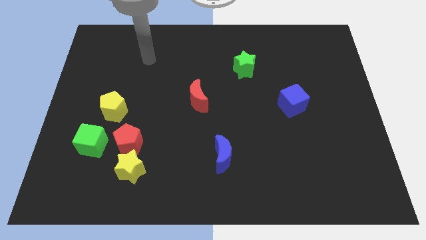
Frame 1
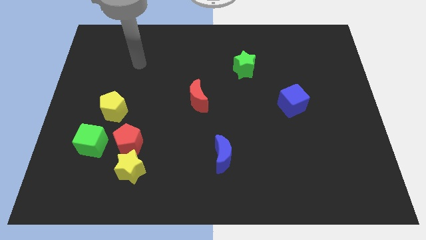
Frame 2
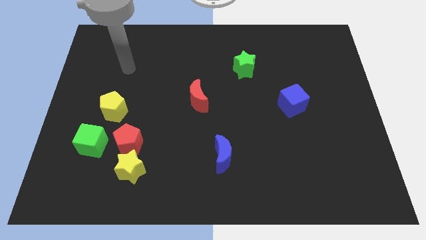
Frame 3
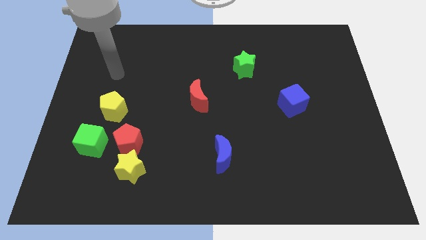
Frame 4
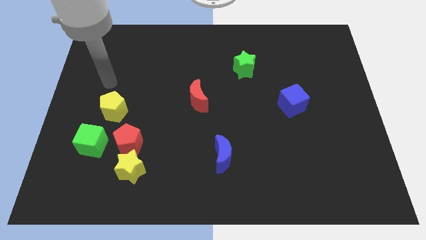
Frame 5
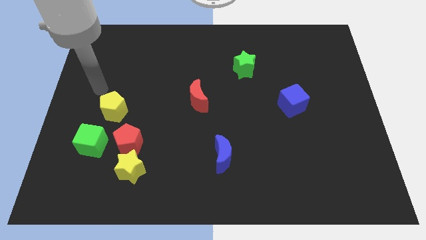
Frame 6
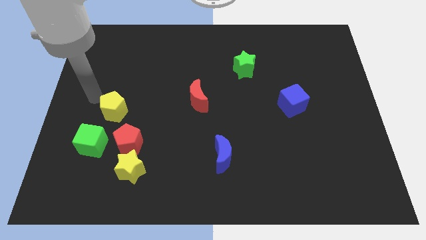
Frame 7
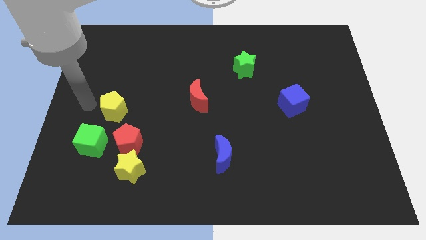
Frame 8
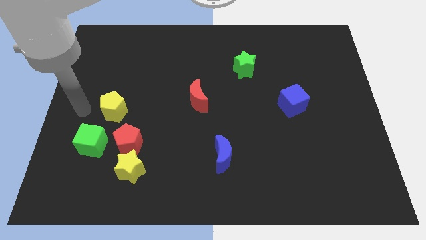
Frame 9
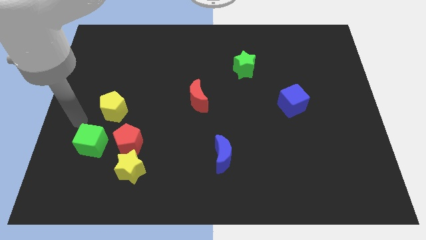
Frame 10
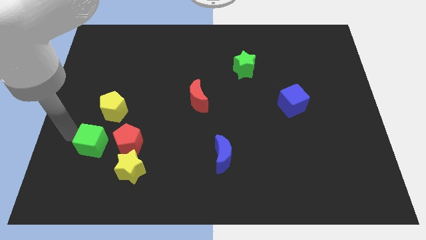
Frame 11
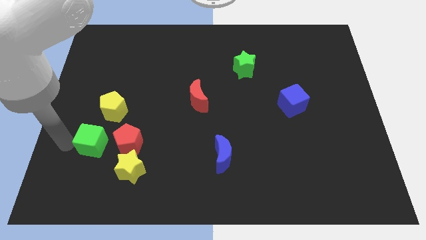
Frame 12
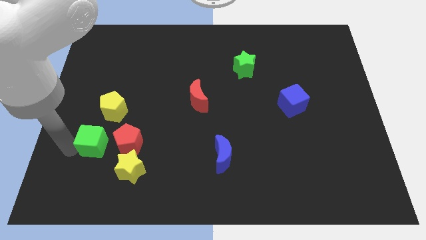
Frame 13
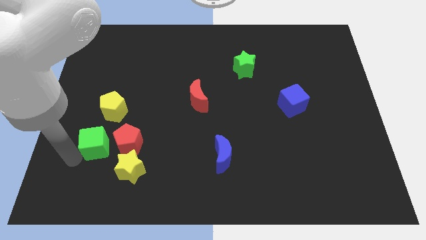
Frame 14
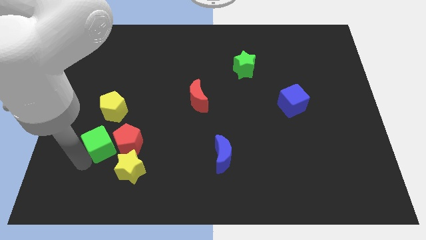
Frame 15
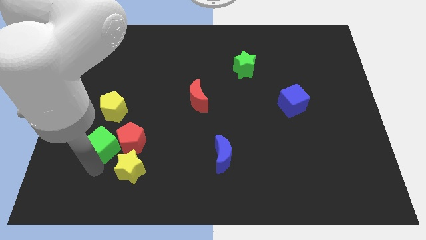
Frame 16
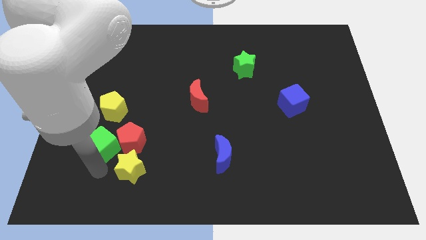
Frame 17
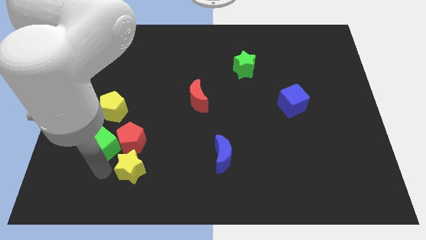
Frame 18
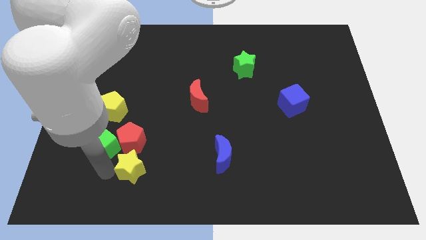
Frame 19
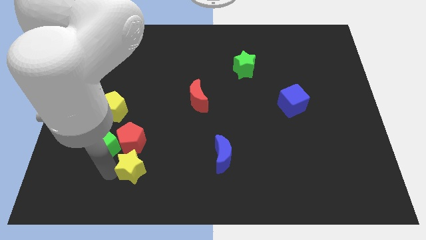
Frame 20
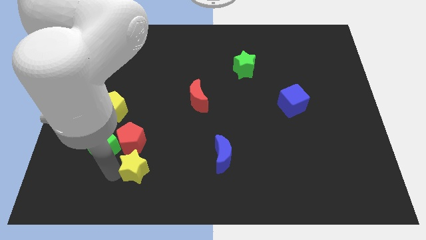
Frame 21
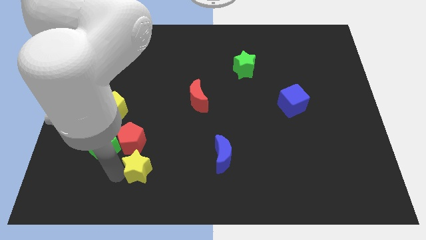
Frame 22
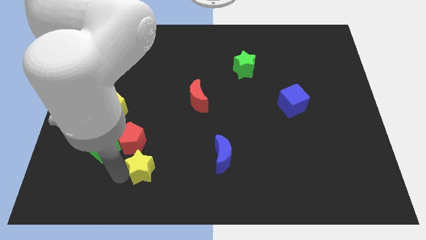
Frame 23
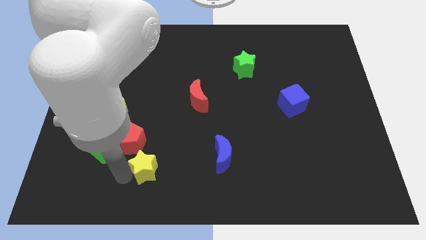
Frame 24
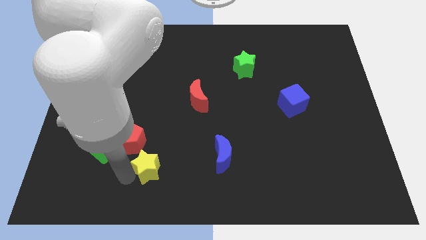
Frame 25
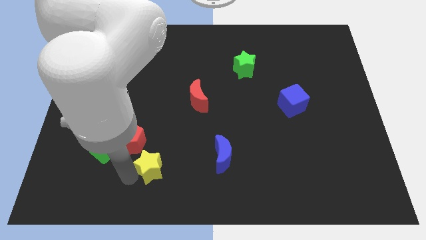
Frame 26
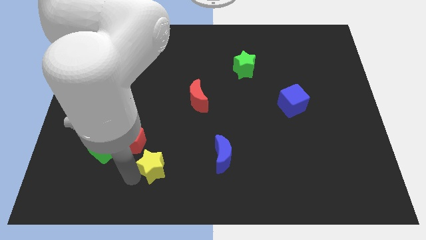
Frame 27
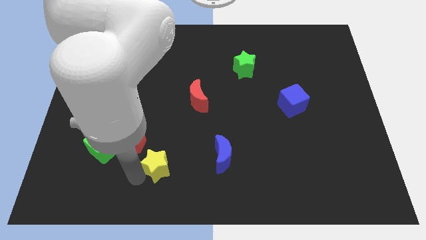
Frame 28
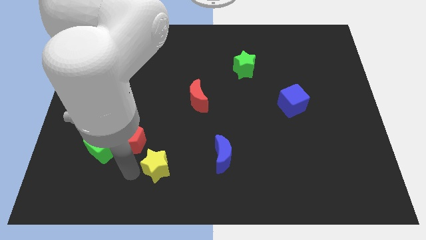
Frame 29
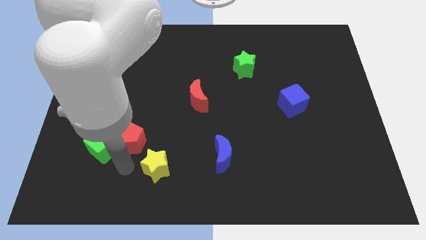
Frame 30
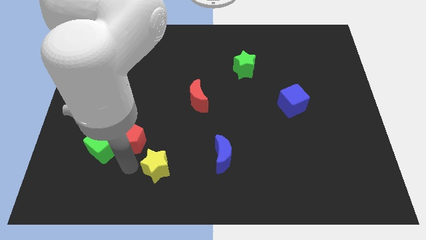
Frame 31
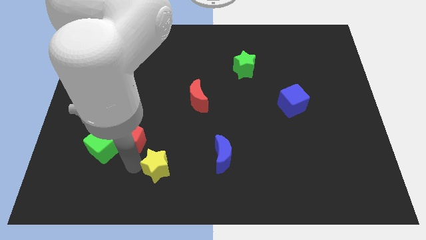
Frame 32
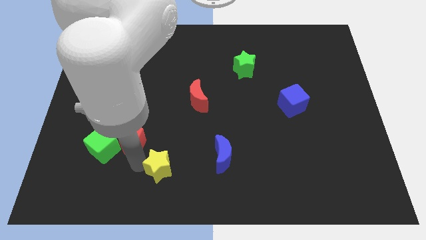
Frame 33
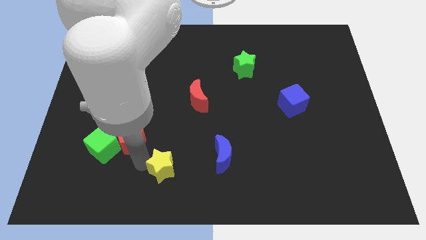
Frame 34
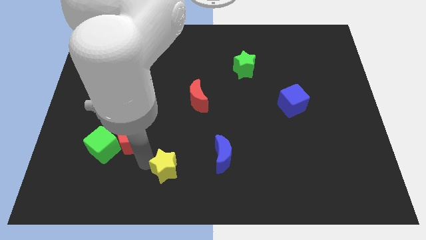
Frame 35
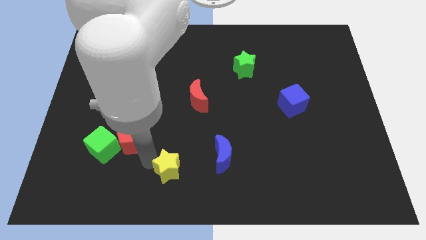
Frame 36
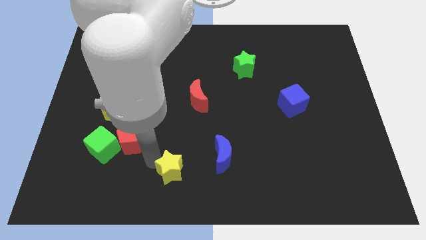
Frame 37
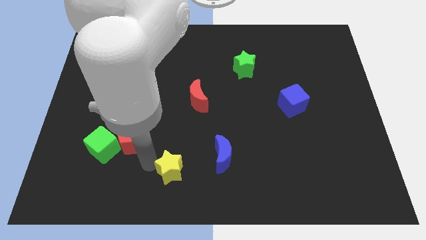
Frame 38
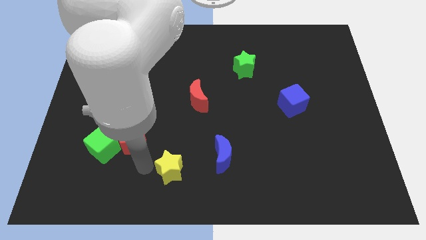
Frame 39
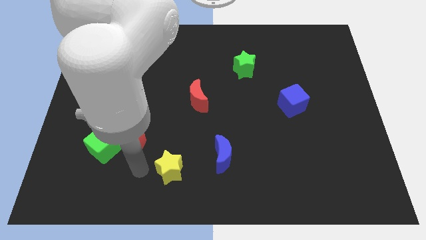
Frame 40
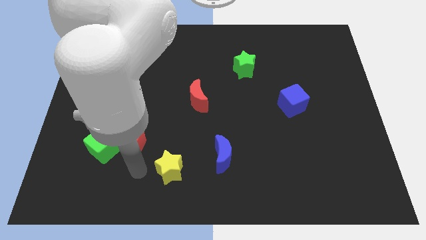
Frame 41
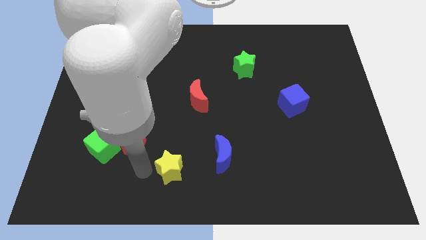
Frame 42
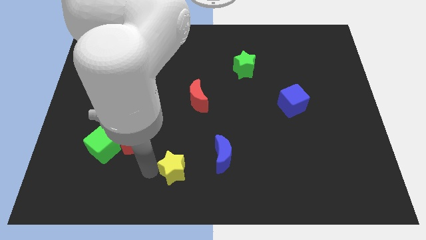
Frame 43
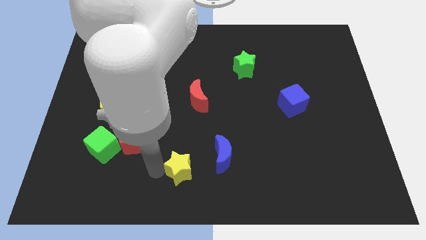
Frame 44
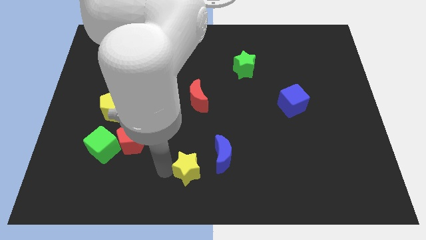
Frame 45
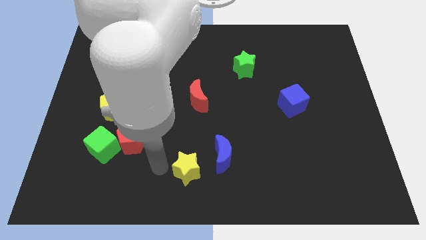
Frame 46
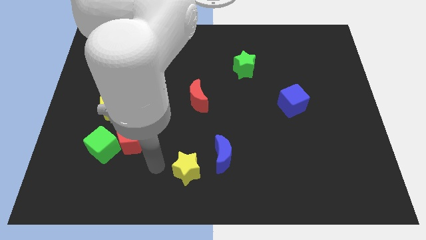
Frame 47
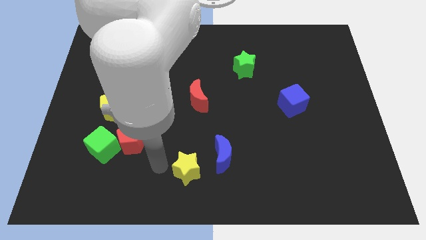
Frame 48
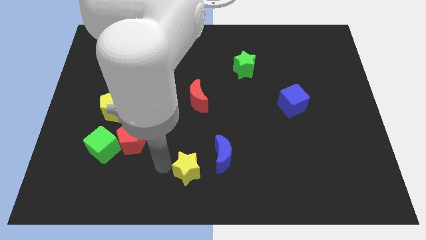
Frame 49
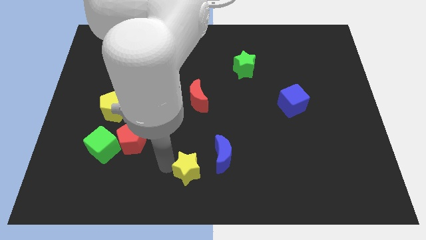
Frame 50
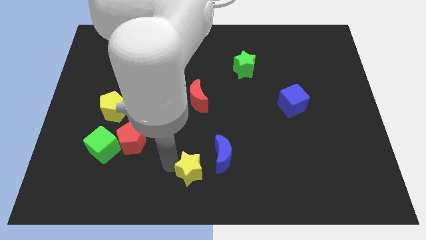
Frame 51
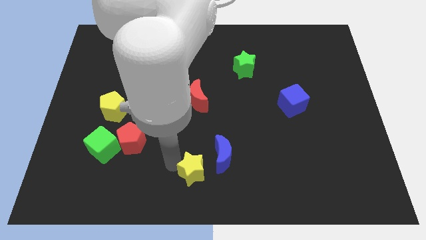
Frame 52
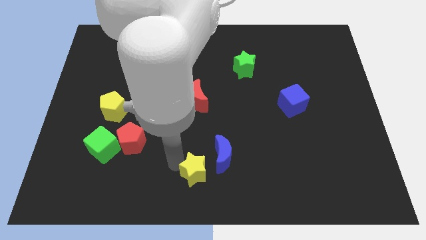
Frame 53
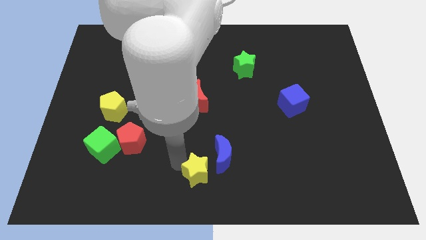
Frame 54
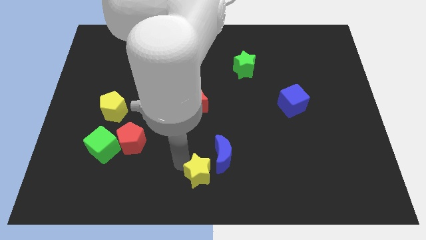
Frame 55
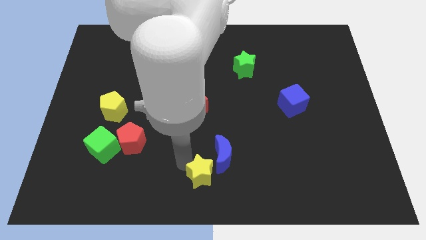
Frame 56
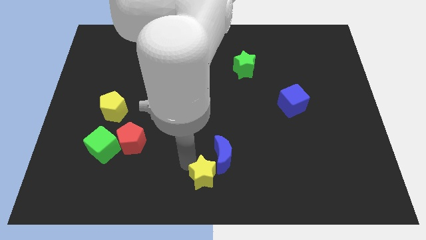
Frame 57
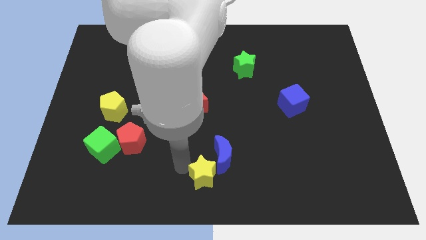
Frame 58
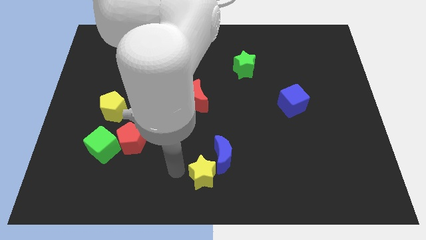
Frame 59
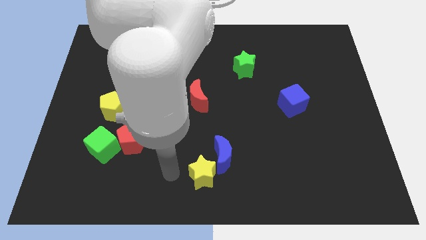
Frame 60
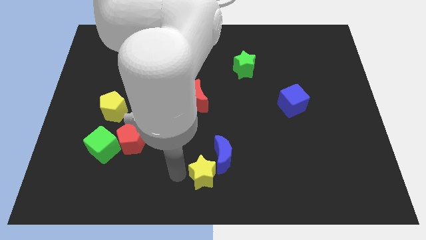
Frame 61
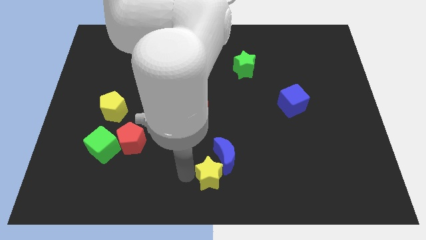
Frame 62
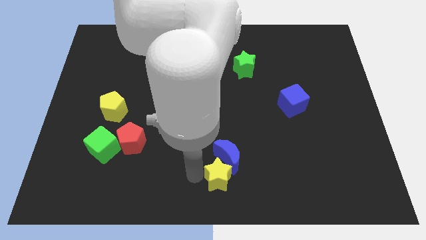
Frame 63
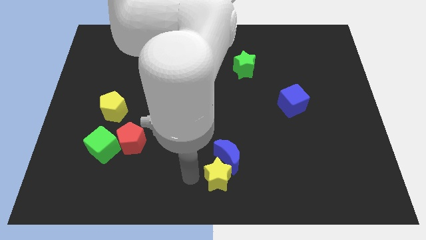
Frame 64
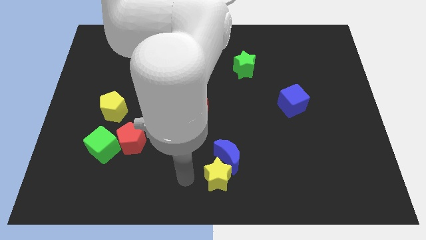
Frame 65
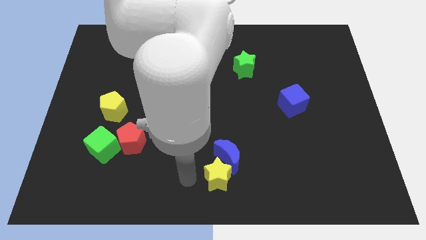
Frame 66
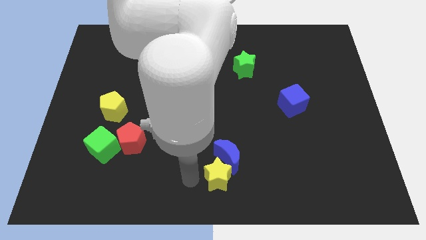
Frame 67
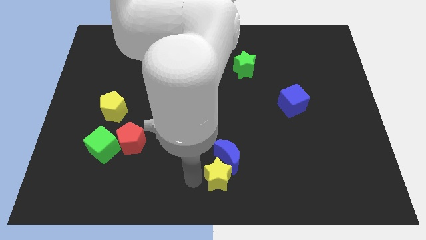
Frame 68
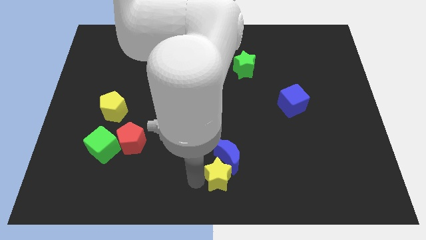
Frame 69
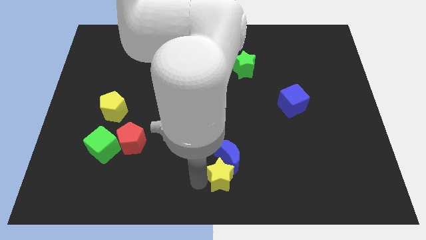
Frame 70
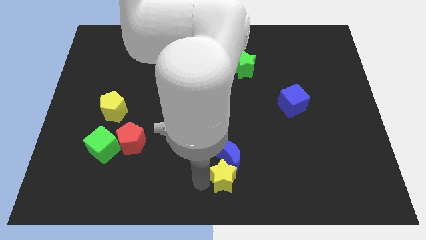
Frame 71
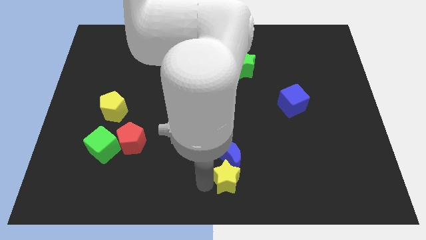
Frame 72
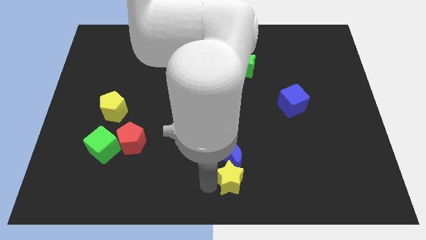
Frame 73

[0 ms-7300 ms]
slide the yellow star right

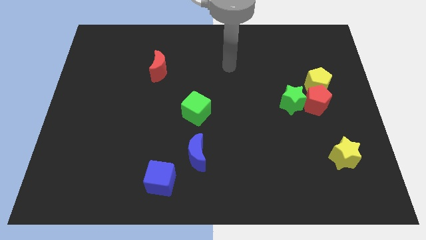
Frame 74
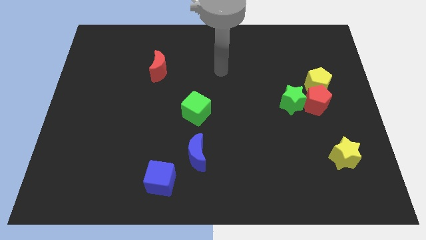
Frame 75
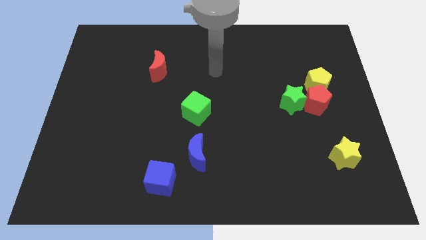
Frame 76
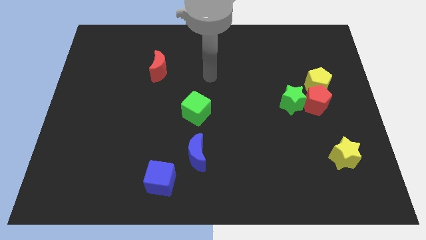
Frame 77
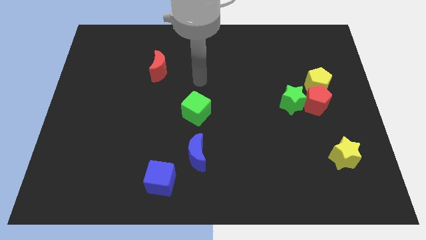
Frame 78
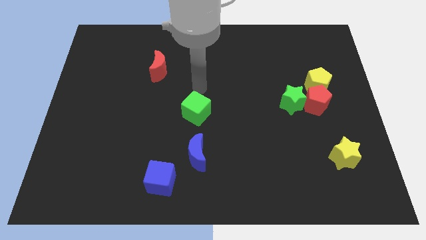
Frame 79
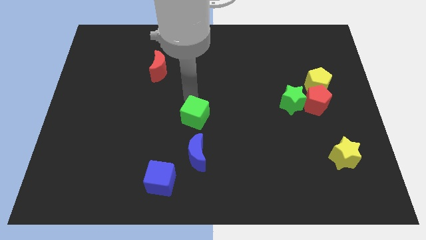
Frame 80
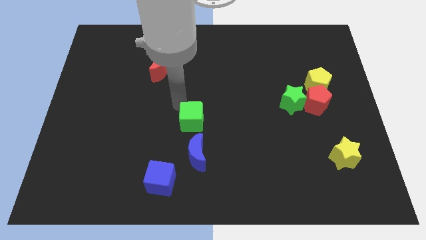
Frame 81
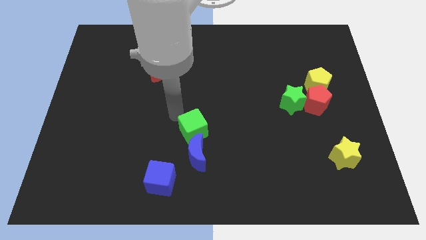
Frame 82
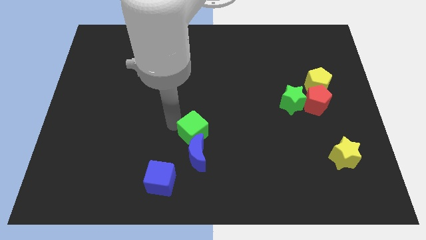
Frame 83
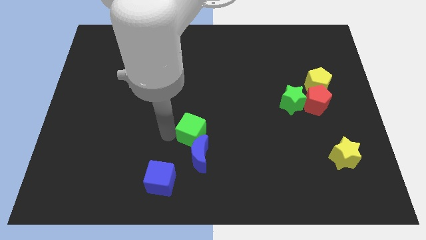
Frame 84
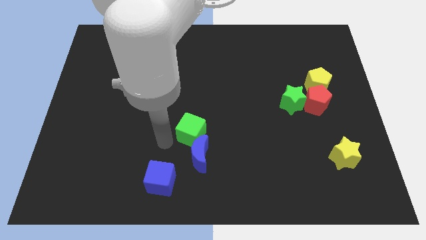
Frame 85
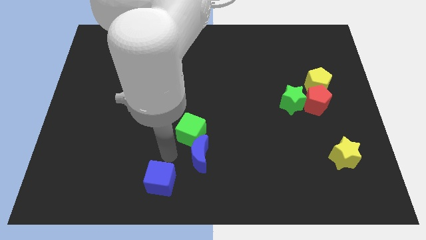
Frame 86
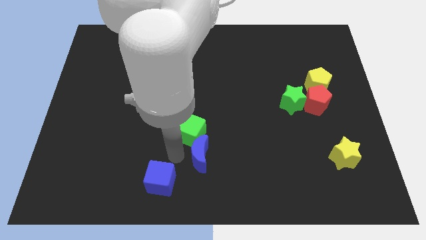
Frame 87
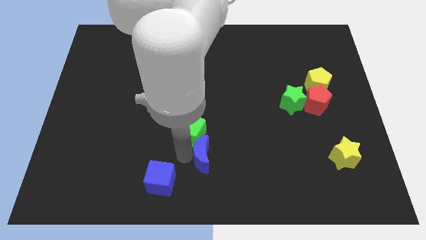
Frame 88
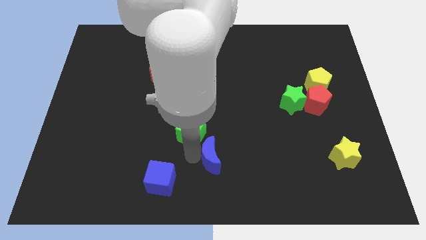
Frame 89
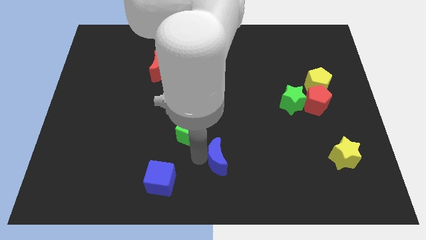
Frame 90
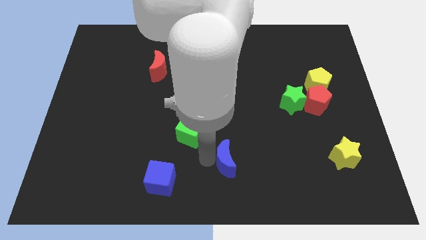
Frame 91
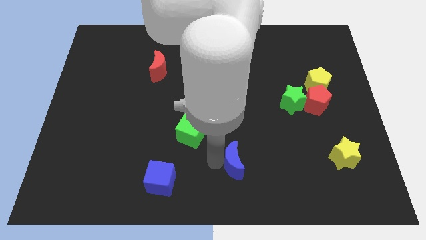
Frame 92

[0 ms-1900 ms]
move the blue moon to the right a little bit
